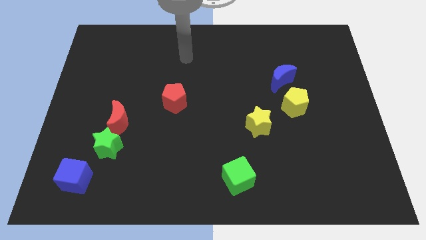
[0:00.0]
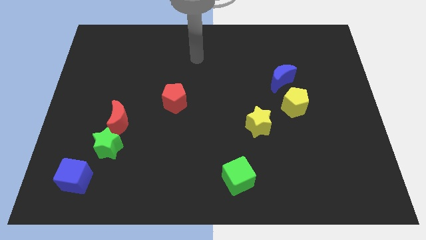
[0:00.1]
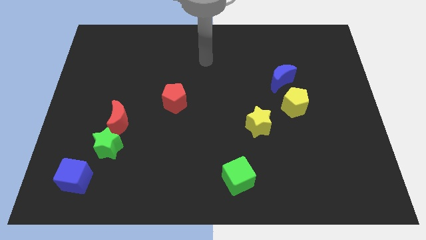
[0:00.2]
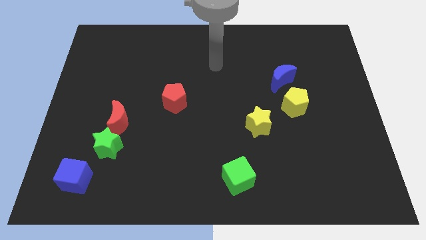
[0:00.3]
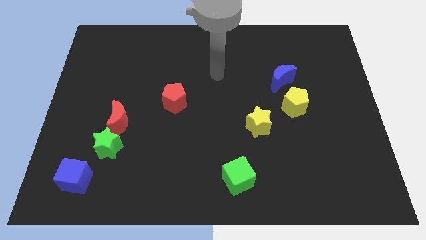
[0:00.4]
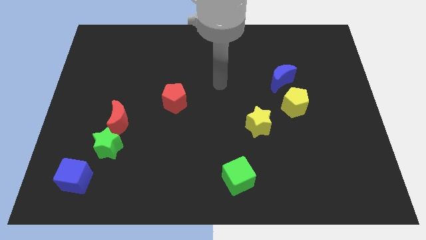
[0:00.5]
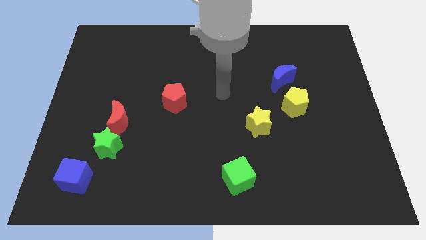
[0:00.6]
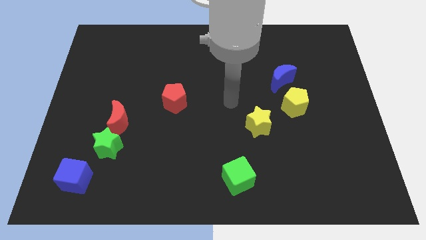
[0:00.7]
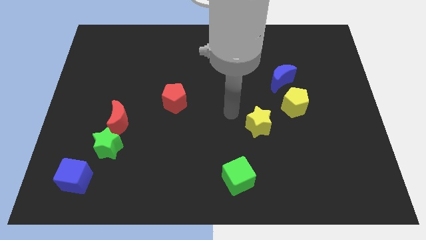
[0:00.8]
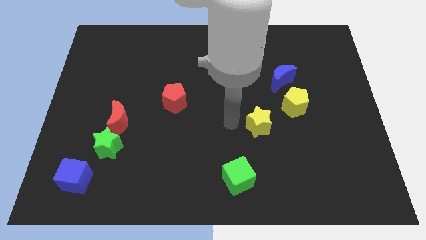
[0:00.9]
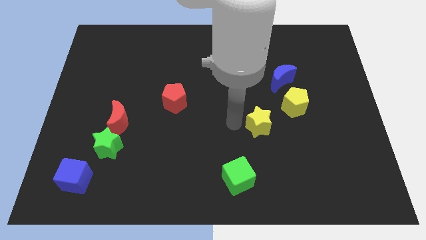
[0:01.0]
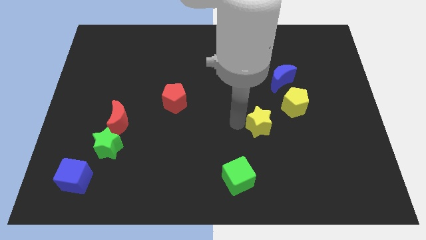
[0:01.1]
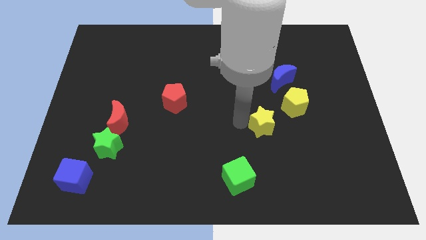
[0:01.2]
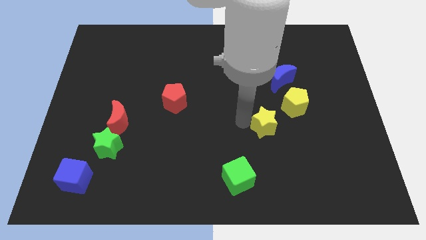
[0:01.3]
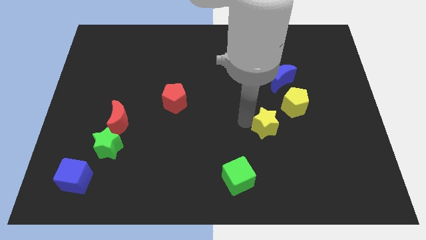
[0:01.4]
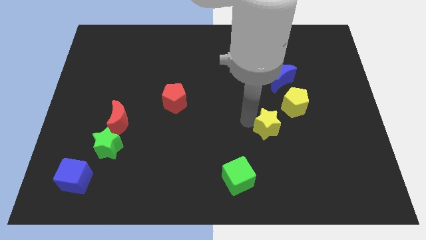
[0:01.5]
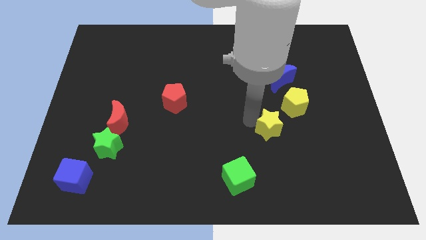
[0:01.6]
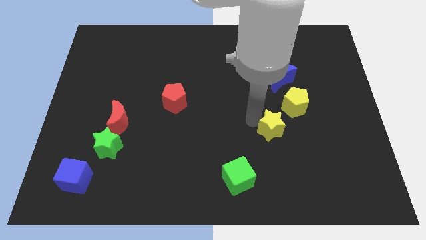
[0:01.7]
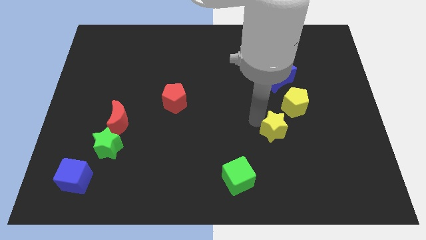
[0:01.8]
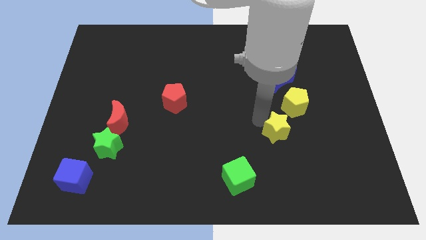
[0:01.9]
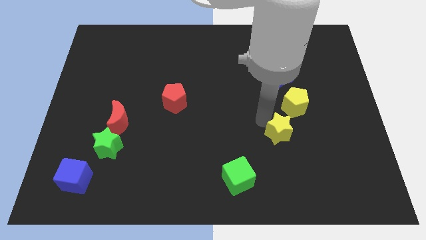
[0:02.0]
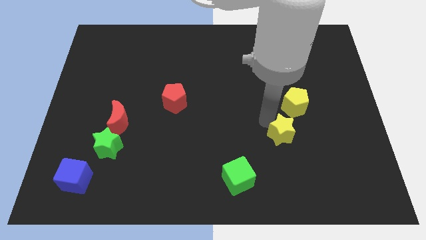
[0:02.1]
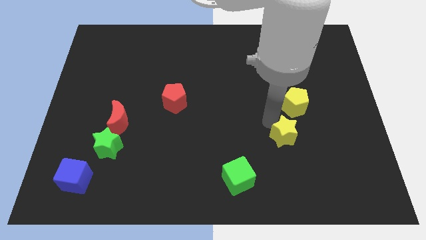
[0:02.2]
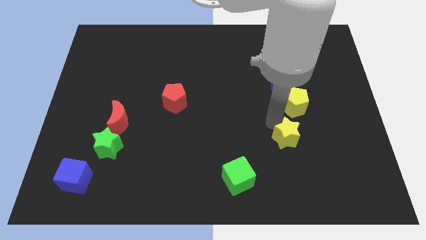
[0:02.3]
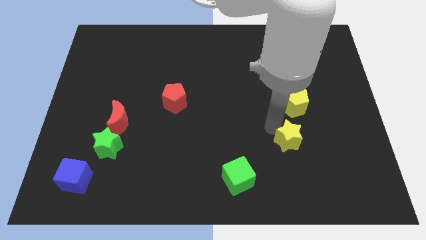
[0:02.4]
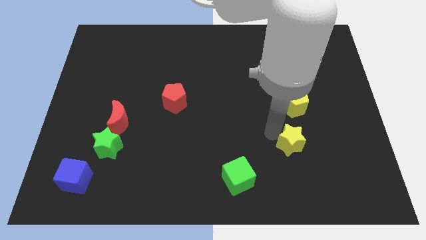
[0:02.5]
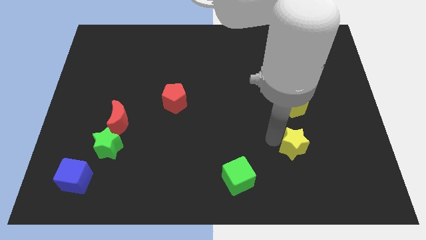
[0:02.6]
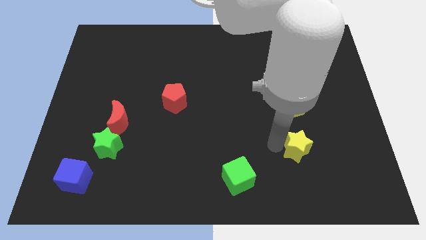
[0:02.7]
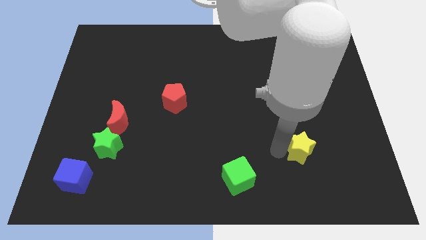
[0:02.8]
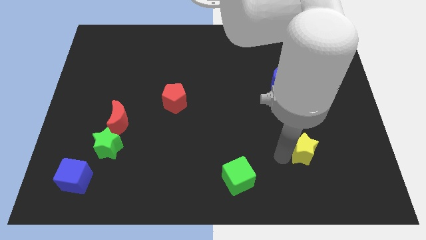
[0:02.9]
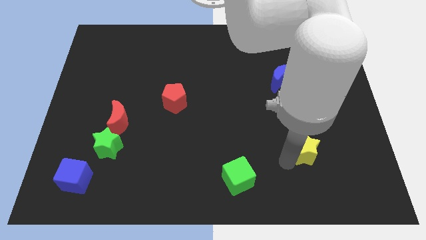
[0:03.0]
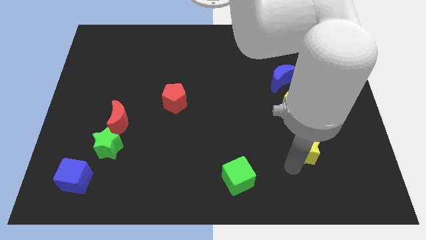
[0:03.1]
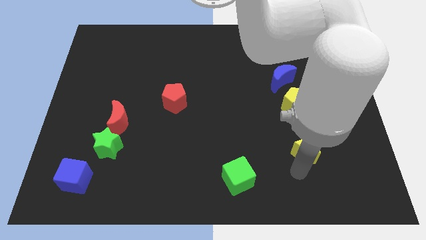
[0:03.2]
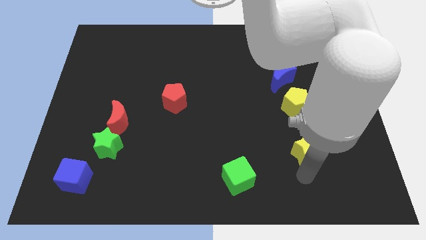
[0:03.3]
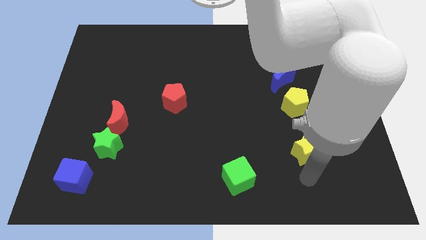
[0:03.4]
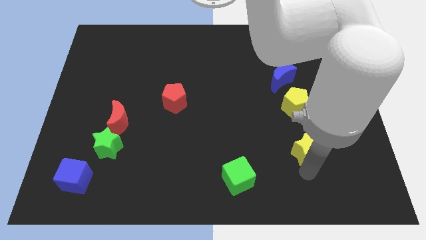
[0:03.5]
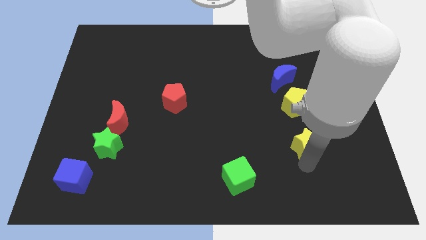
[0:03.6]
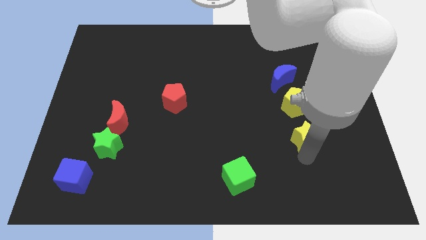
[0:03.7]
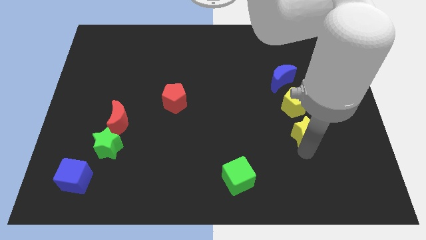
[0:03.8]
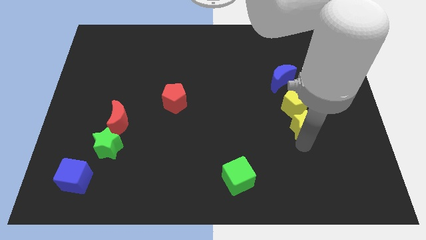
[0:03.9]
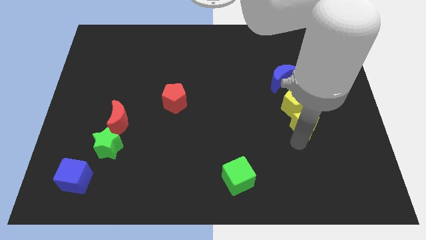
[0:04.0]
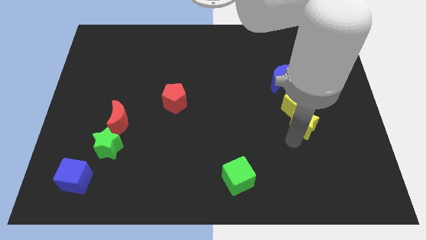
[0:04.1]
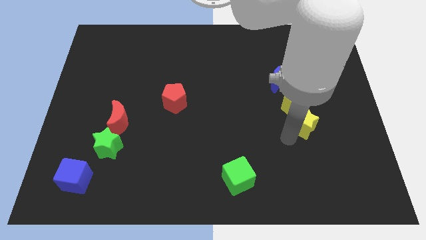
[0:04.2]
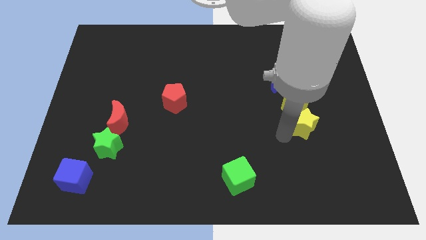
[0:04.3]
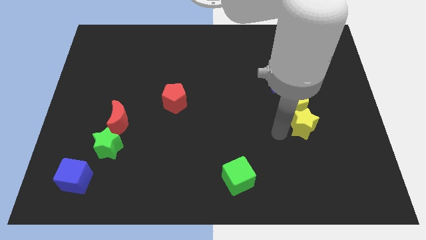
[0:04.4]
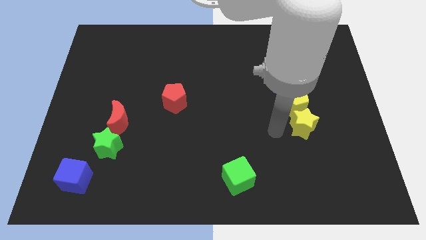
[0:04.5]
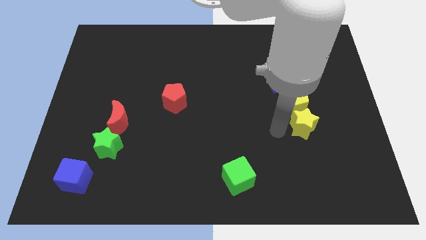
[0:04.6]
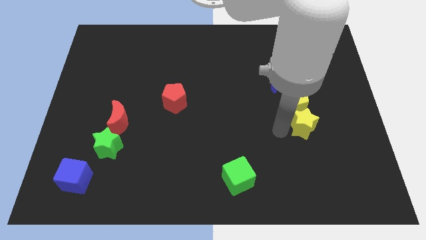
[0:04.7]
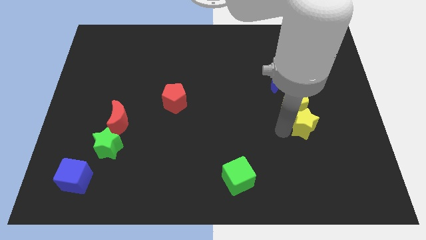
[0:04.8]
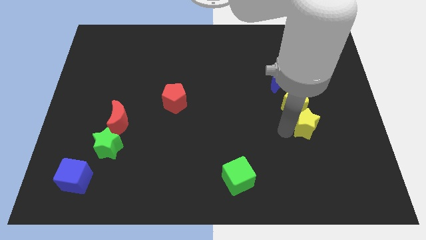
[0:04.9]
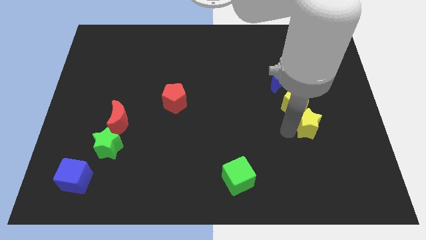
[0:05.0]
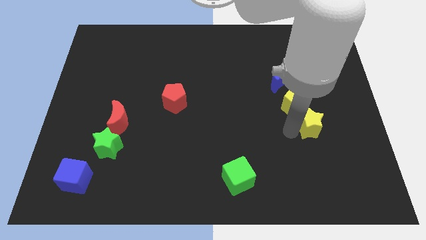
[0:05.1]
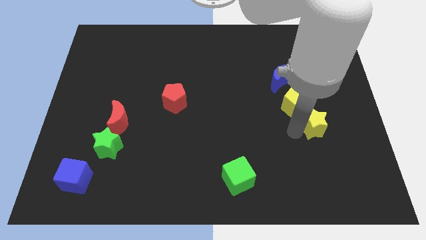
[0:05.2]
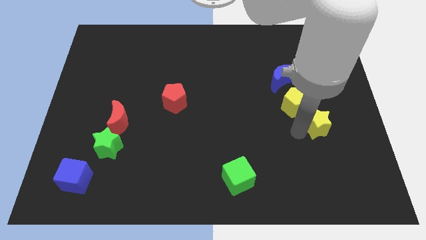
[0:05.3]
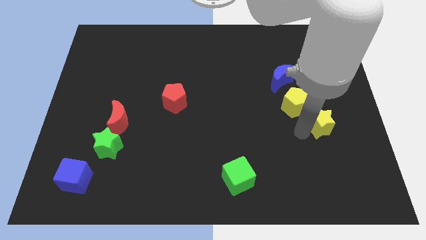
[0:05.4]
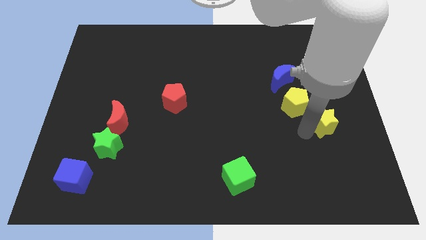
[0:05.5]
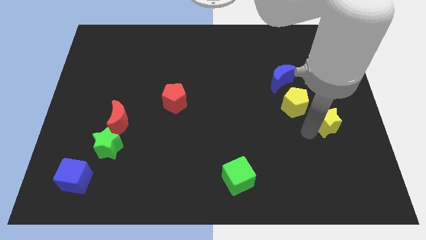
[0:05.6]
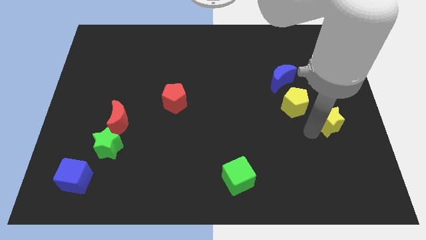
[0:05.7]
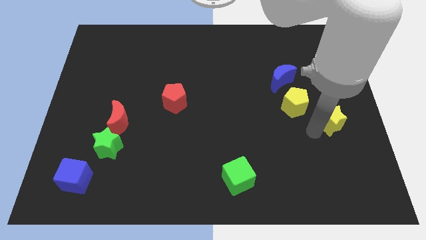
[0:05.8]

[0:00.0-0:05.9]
slide the yellow star to the right side

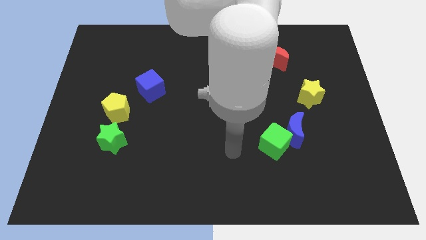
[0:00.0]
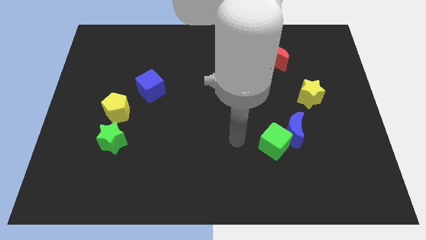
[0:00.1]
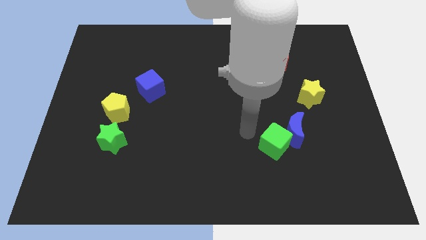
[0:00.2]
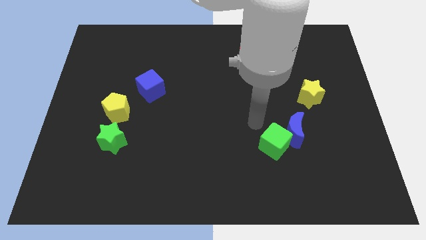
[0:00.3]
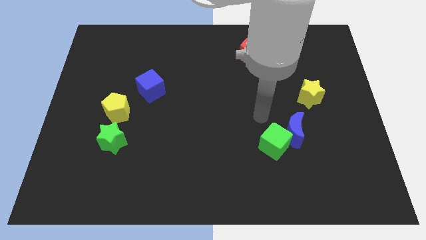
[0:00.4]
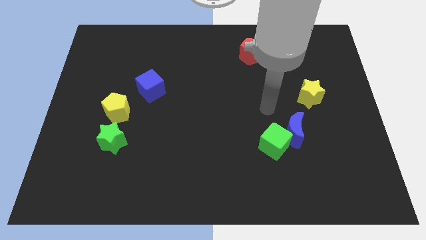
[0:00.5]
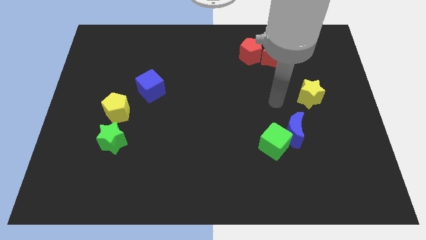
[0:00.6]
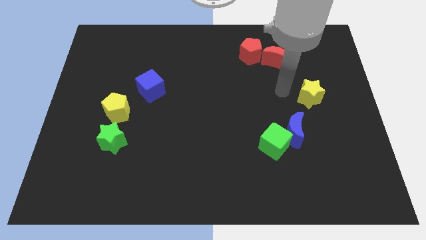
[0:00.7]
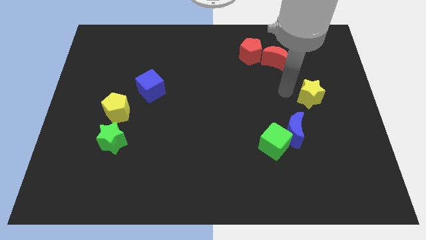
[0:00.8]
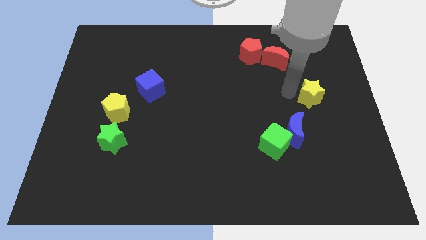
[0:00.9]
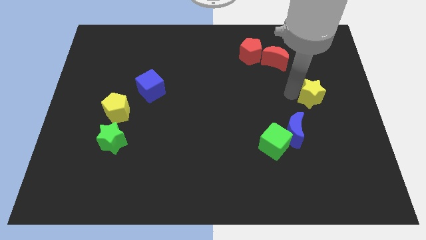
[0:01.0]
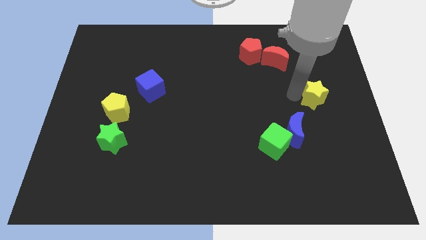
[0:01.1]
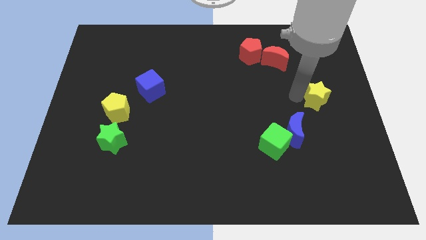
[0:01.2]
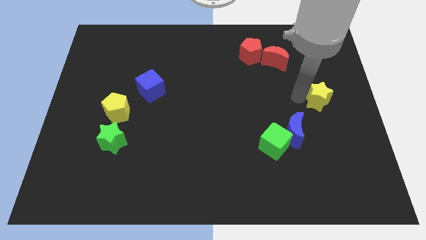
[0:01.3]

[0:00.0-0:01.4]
move the yellow star to the right side
